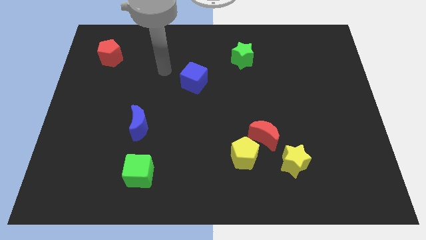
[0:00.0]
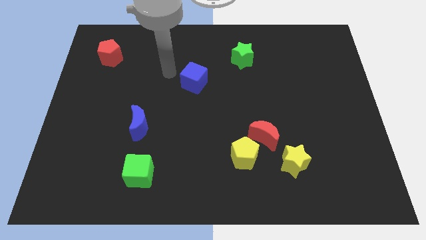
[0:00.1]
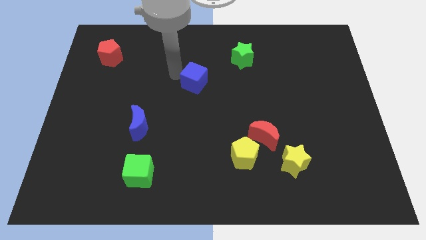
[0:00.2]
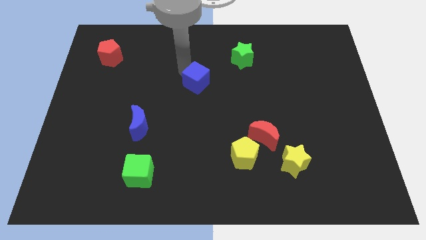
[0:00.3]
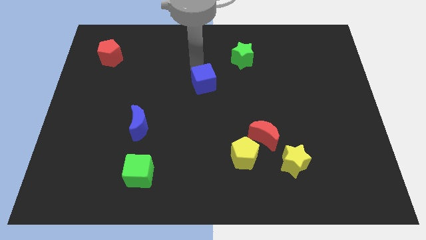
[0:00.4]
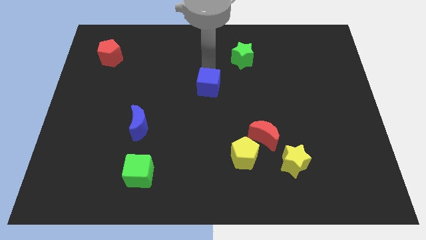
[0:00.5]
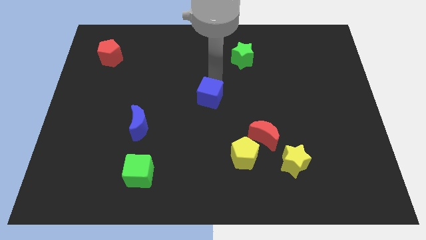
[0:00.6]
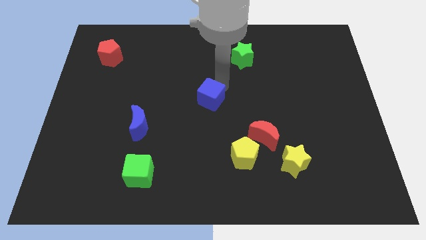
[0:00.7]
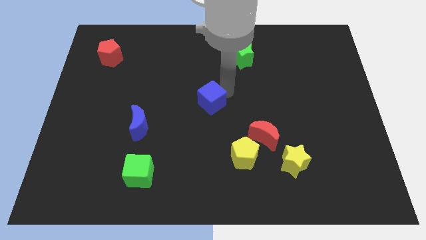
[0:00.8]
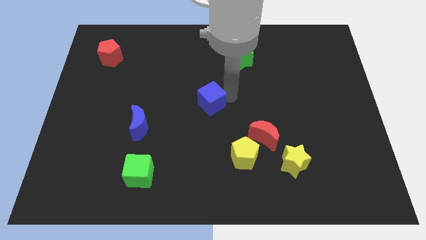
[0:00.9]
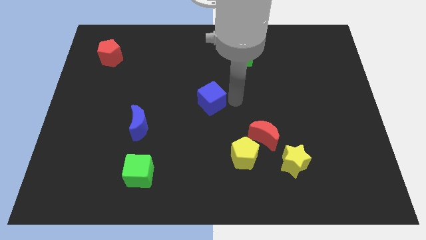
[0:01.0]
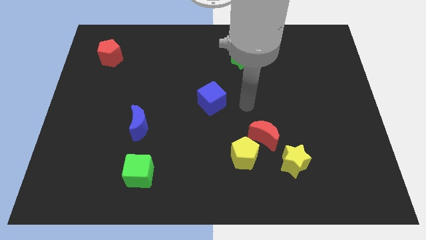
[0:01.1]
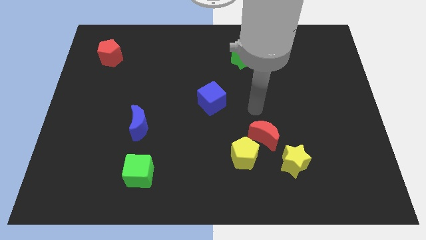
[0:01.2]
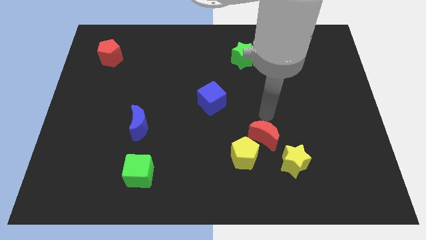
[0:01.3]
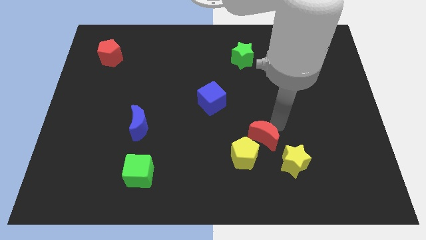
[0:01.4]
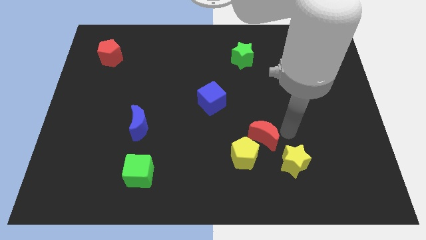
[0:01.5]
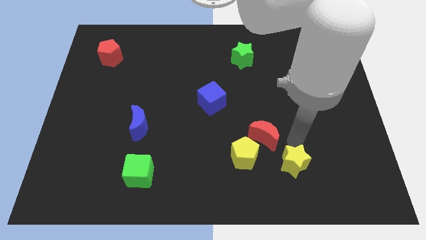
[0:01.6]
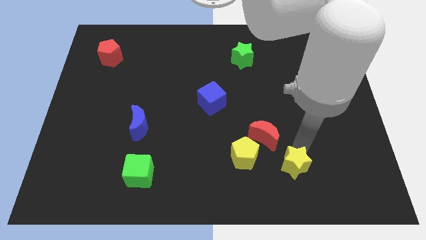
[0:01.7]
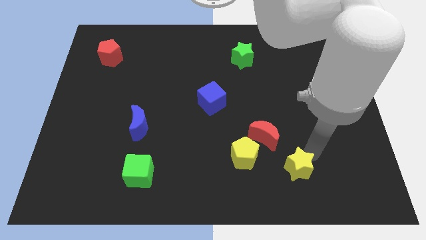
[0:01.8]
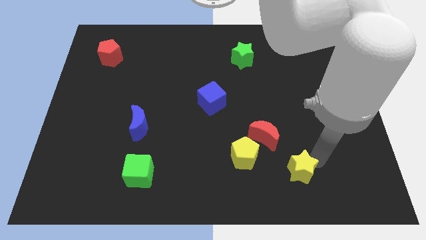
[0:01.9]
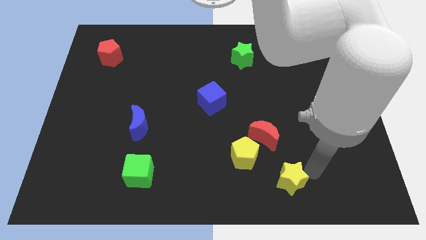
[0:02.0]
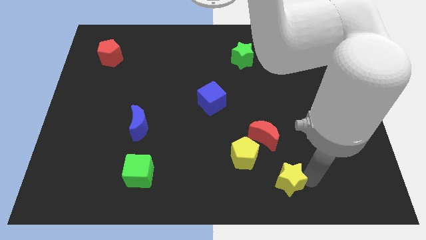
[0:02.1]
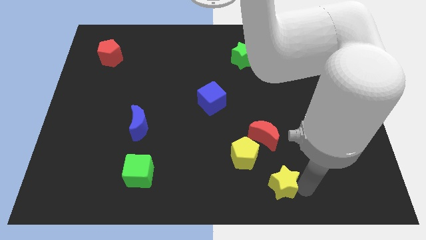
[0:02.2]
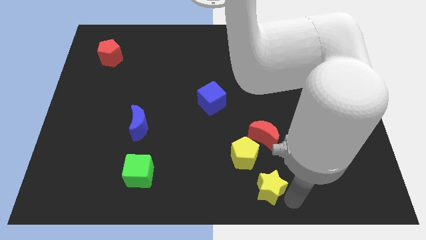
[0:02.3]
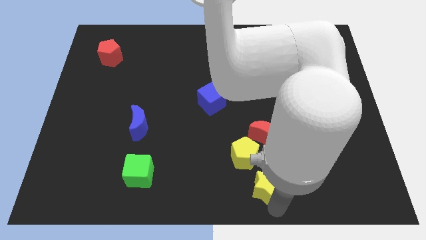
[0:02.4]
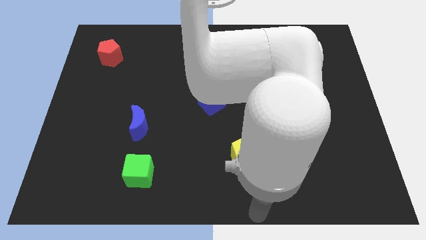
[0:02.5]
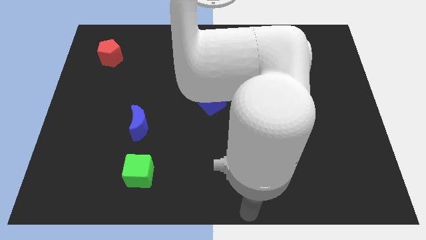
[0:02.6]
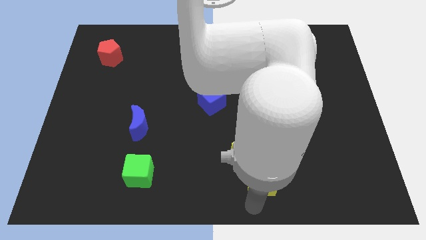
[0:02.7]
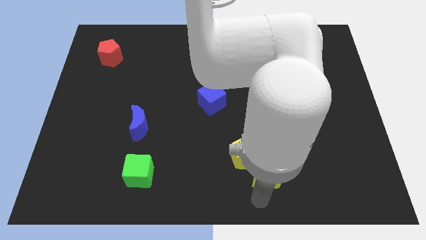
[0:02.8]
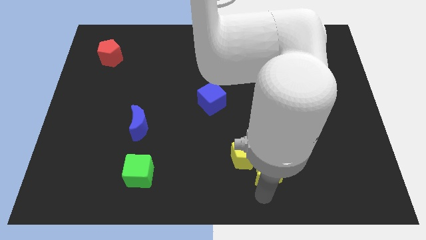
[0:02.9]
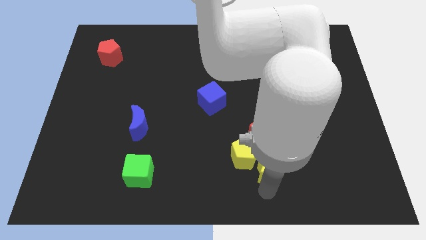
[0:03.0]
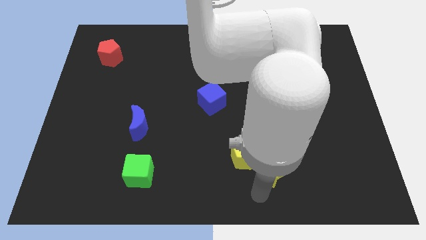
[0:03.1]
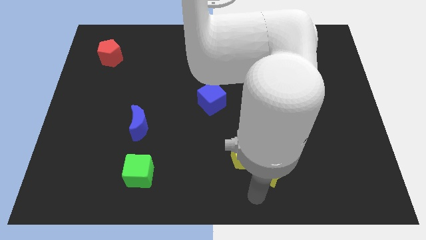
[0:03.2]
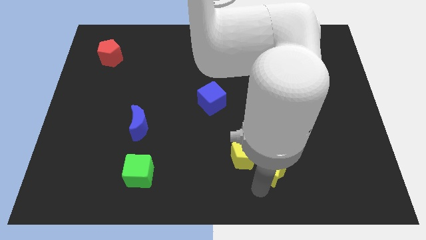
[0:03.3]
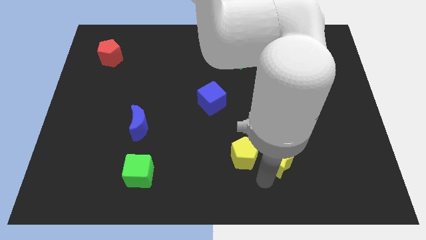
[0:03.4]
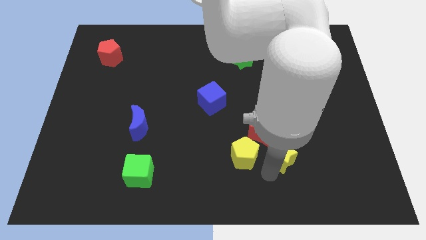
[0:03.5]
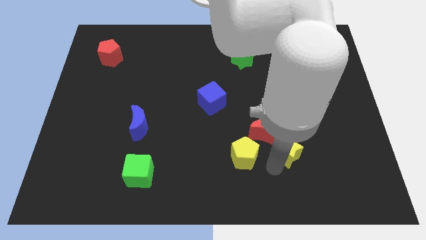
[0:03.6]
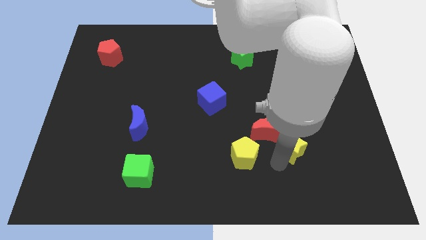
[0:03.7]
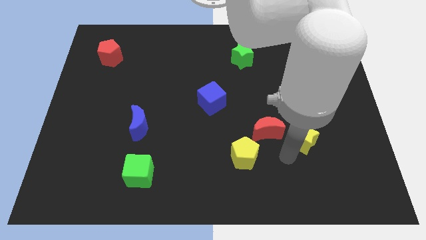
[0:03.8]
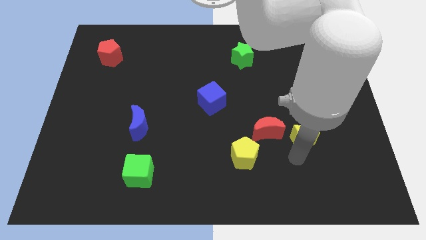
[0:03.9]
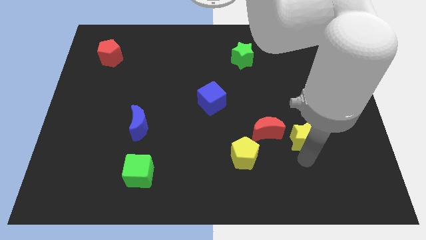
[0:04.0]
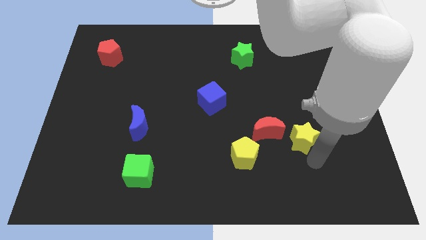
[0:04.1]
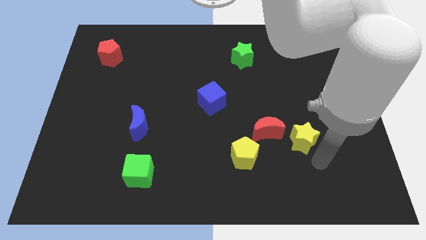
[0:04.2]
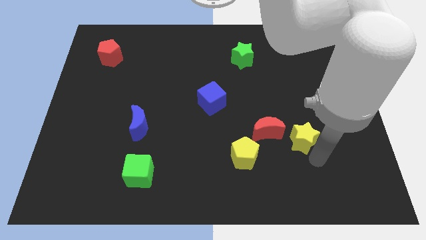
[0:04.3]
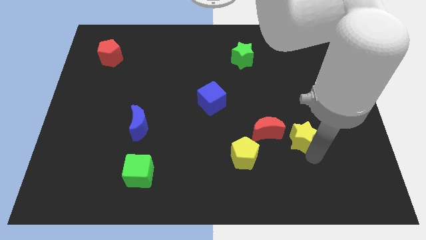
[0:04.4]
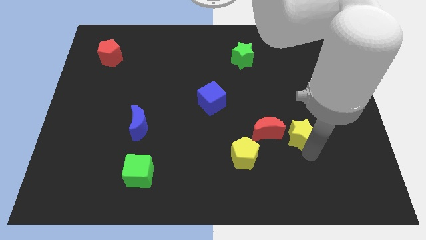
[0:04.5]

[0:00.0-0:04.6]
push the yellow star a little bit upwards

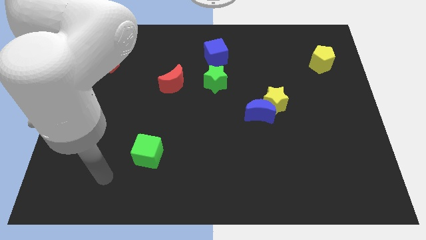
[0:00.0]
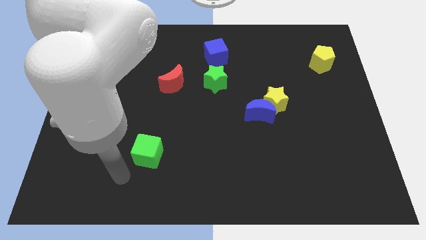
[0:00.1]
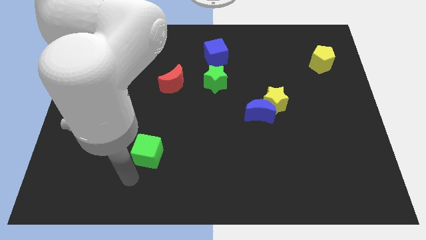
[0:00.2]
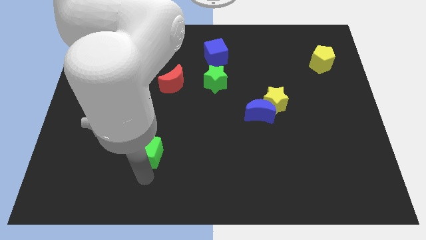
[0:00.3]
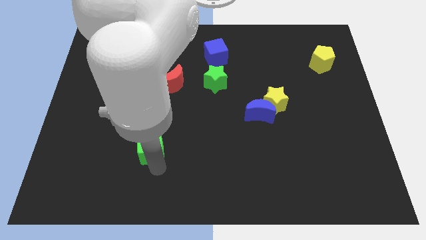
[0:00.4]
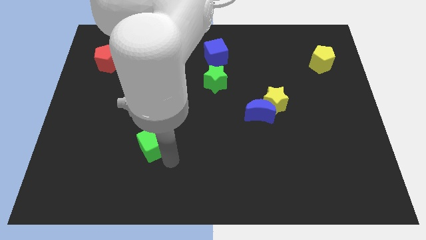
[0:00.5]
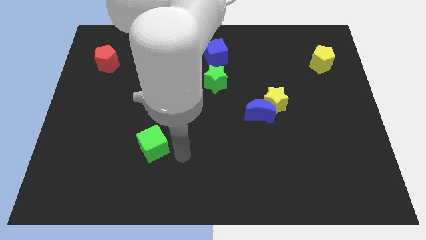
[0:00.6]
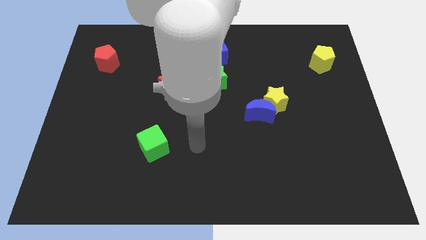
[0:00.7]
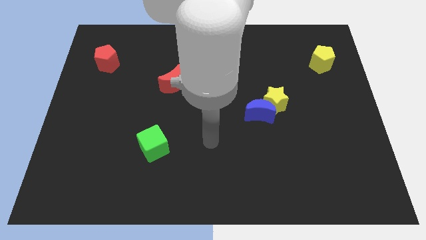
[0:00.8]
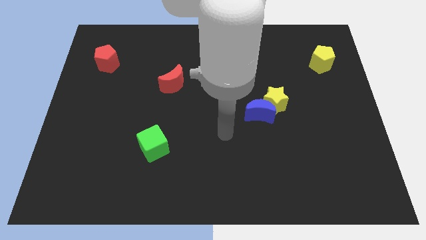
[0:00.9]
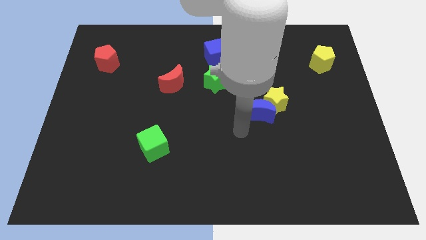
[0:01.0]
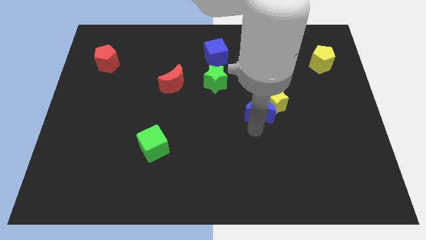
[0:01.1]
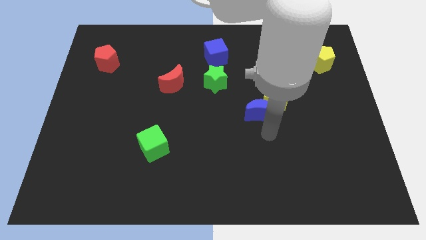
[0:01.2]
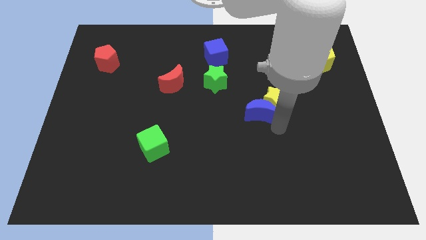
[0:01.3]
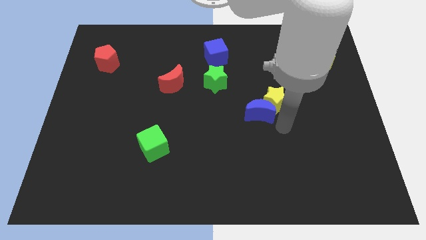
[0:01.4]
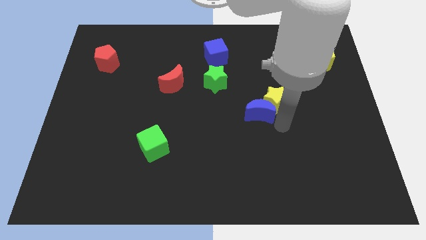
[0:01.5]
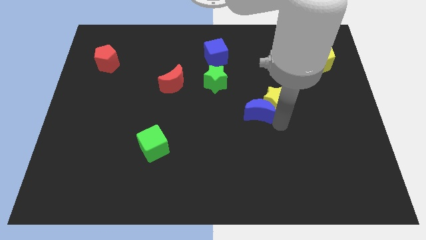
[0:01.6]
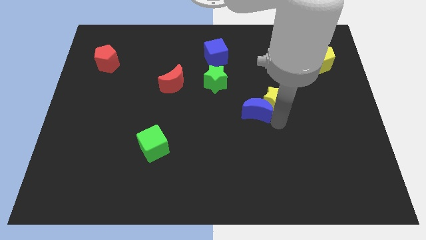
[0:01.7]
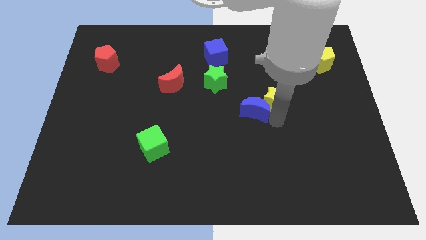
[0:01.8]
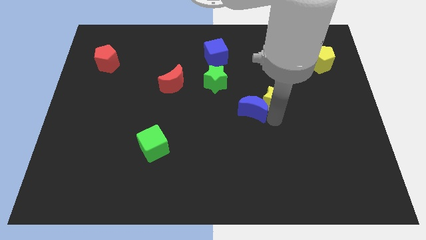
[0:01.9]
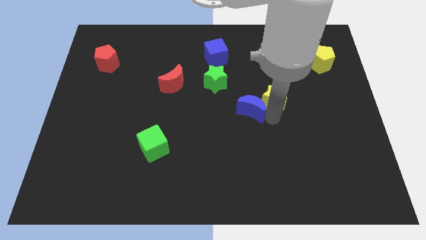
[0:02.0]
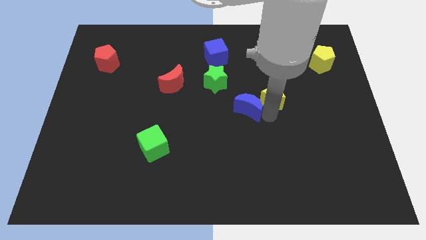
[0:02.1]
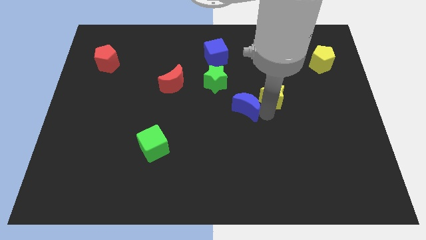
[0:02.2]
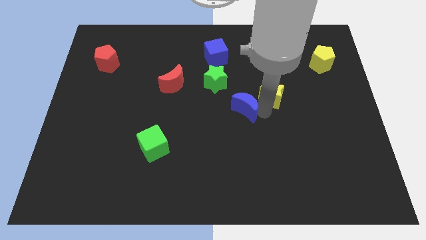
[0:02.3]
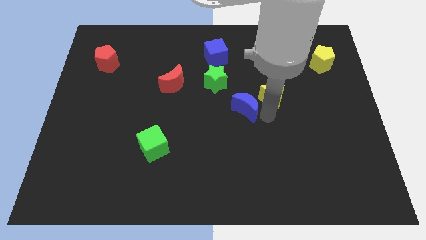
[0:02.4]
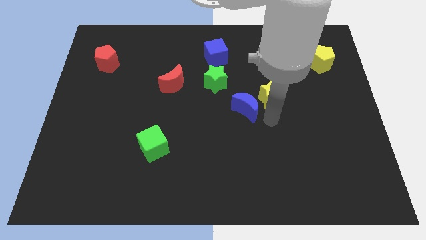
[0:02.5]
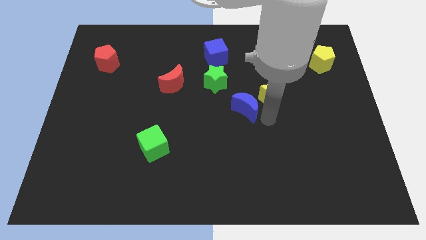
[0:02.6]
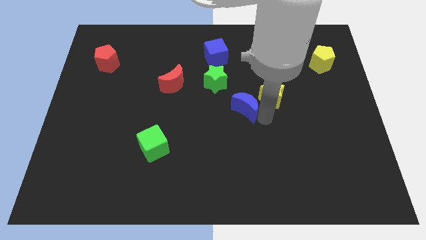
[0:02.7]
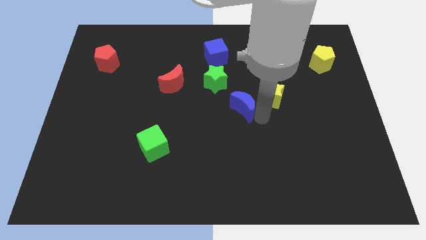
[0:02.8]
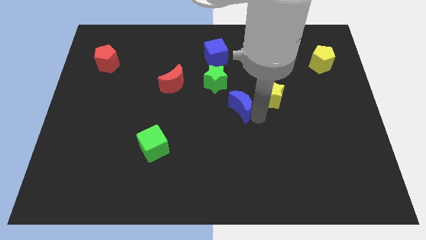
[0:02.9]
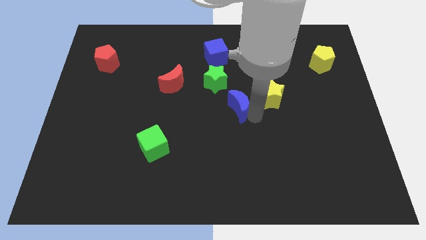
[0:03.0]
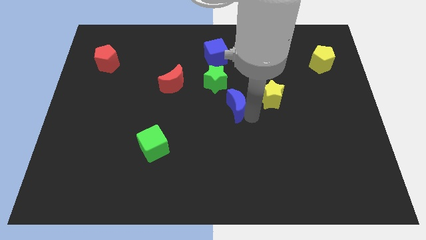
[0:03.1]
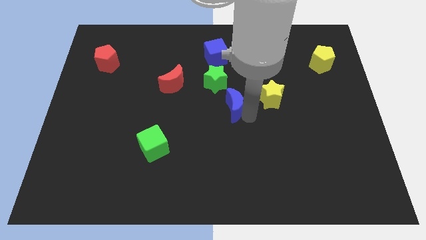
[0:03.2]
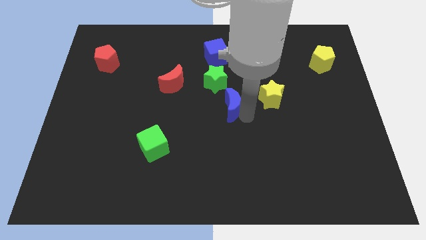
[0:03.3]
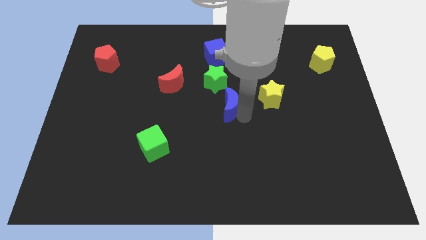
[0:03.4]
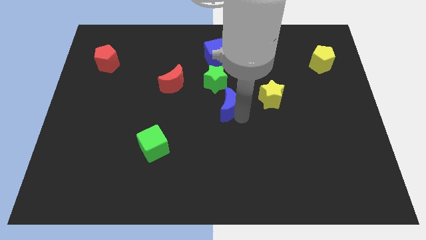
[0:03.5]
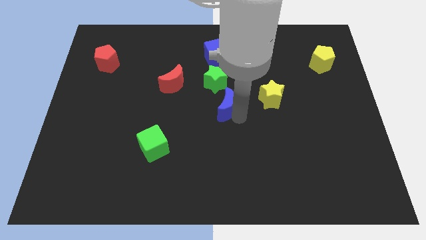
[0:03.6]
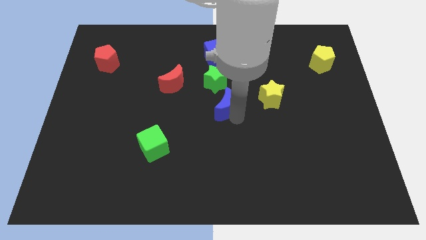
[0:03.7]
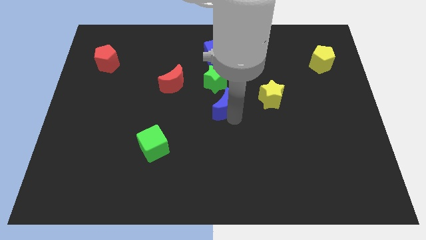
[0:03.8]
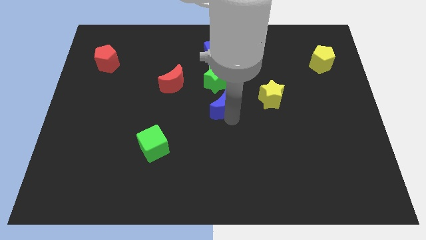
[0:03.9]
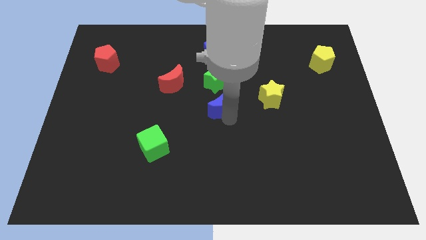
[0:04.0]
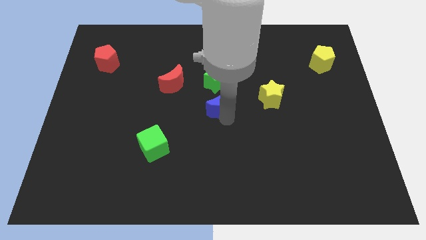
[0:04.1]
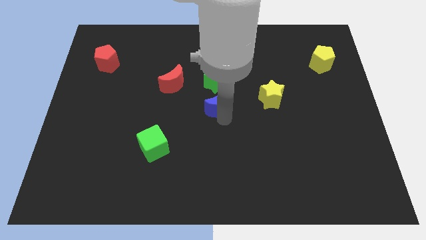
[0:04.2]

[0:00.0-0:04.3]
slightly slide the blue moon upwards and left diagonally
